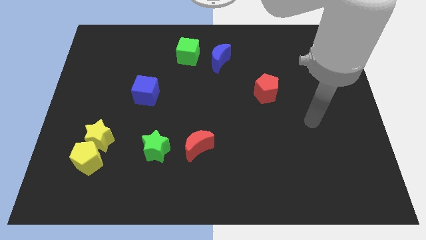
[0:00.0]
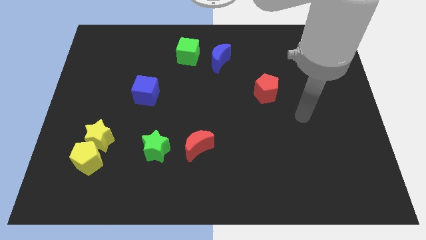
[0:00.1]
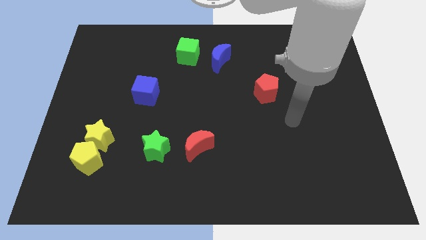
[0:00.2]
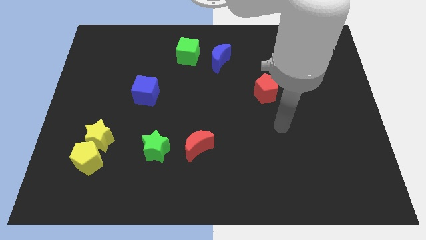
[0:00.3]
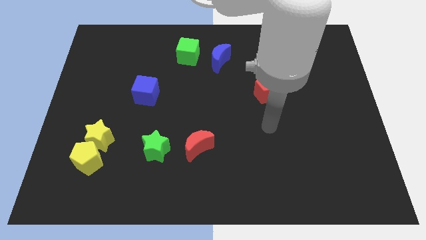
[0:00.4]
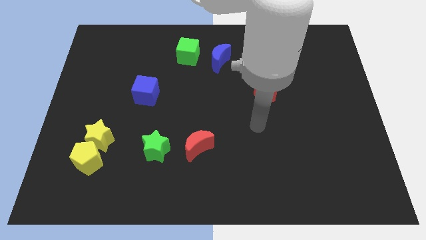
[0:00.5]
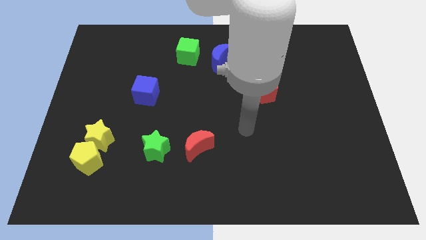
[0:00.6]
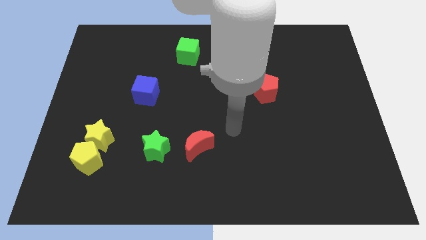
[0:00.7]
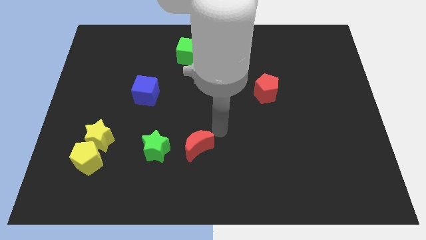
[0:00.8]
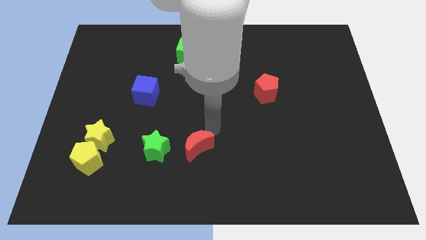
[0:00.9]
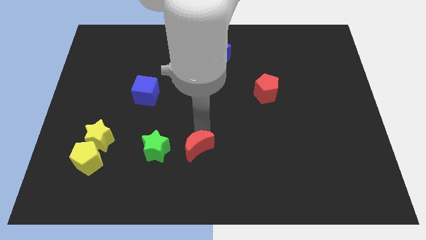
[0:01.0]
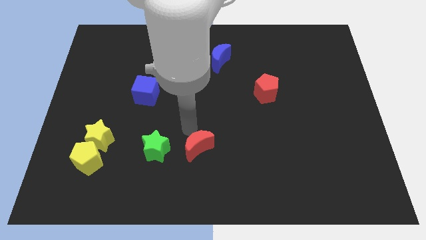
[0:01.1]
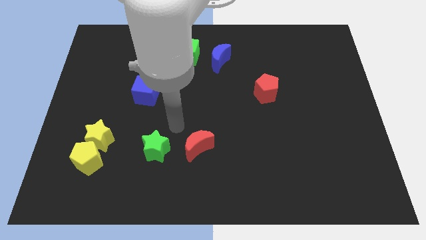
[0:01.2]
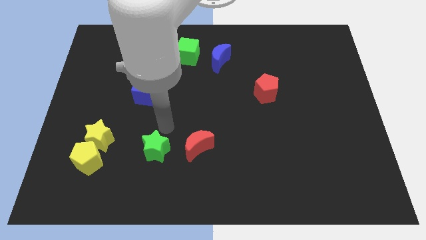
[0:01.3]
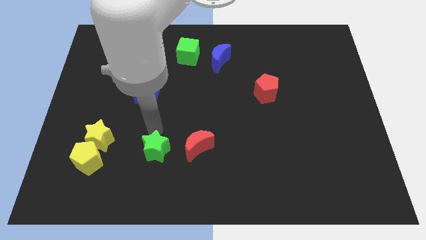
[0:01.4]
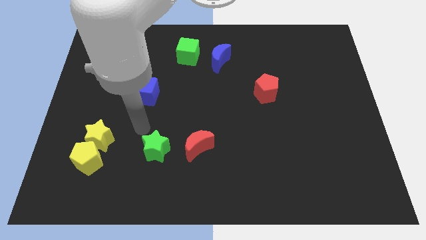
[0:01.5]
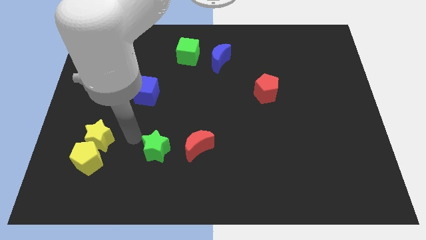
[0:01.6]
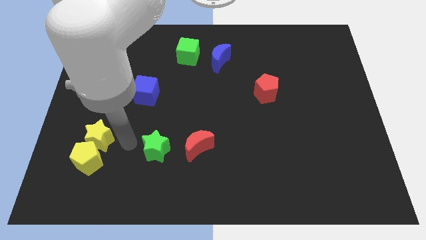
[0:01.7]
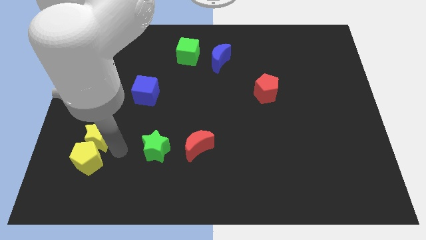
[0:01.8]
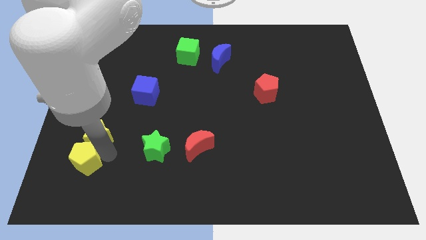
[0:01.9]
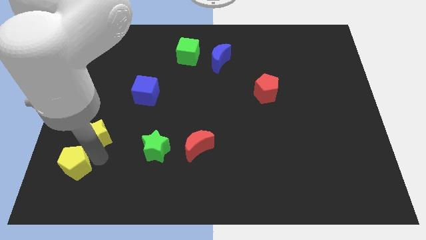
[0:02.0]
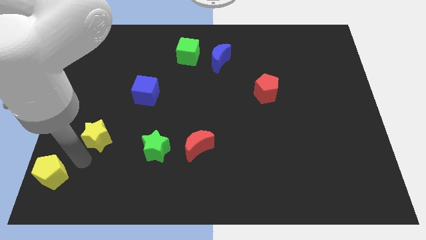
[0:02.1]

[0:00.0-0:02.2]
pull the yellow star apart from the yellow pentagon

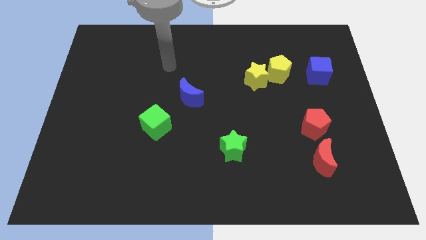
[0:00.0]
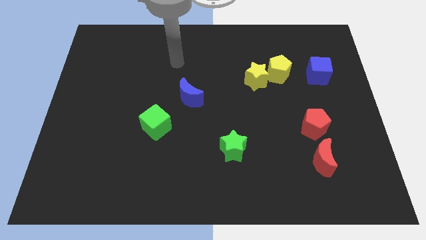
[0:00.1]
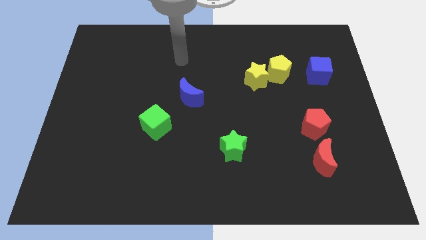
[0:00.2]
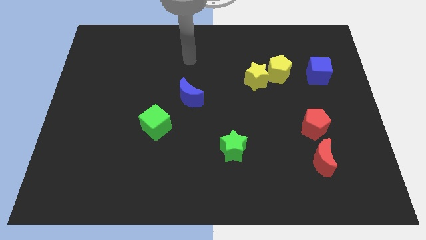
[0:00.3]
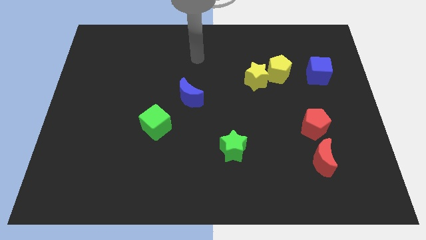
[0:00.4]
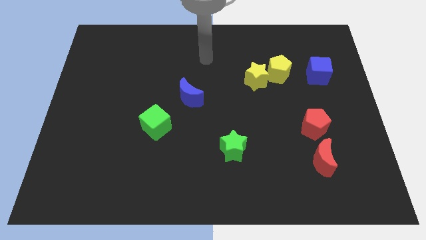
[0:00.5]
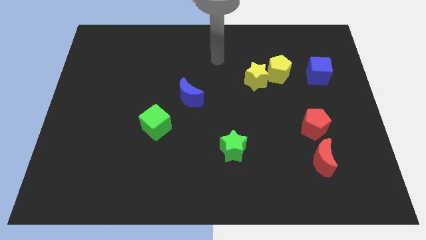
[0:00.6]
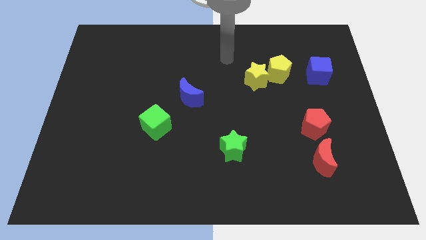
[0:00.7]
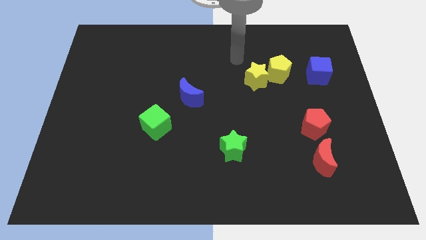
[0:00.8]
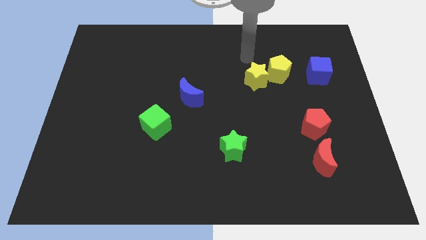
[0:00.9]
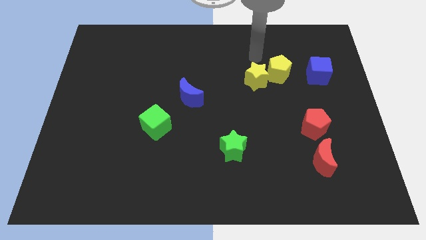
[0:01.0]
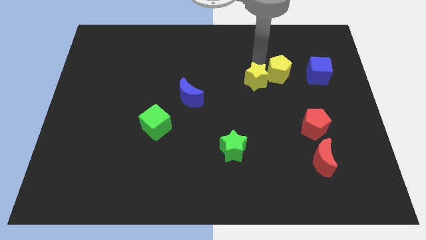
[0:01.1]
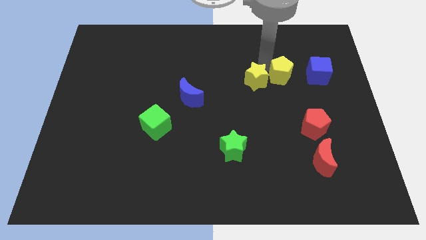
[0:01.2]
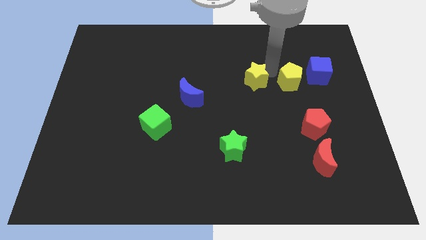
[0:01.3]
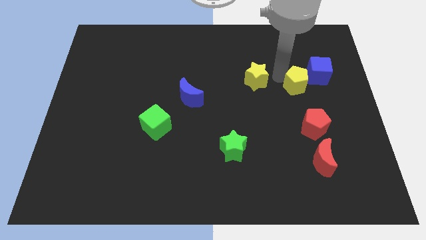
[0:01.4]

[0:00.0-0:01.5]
separate the yellow star from the yellow pentagon

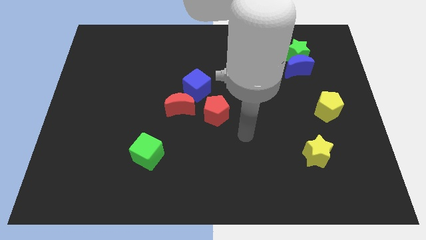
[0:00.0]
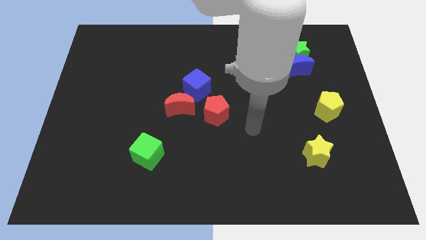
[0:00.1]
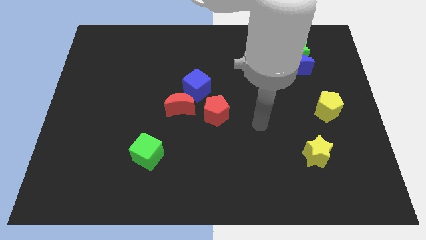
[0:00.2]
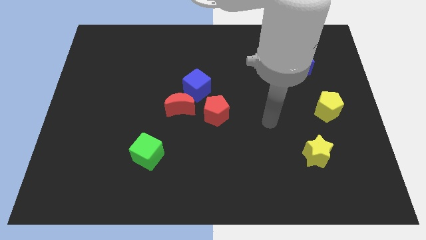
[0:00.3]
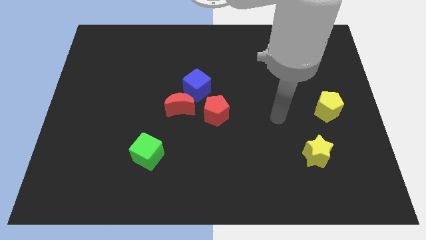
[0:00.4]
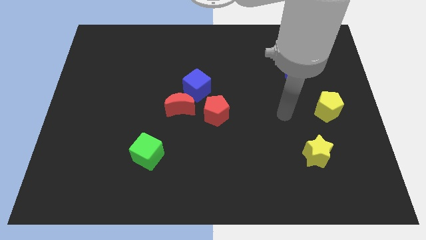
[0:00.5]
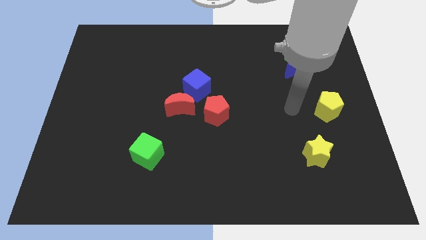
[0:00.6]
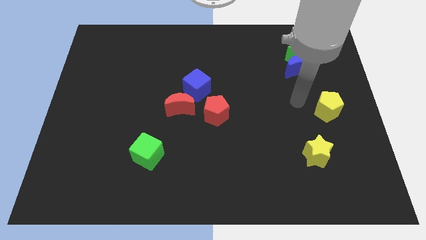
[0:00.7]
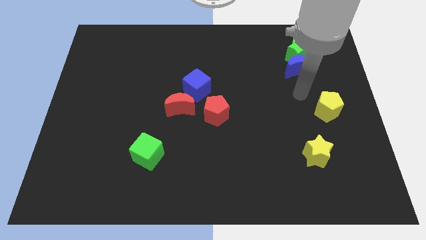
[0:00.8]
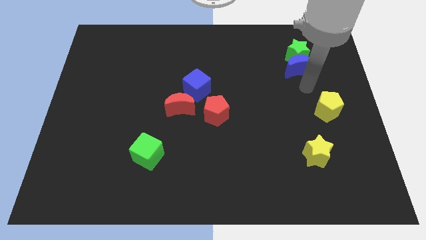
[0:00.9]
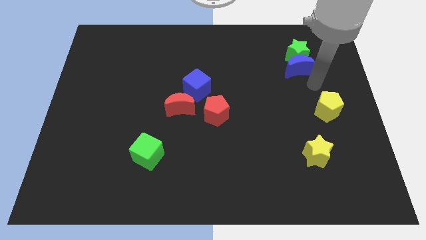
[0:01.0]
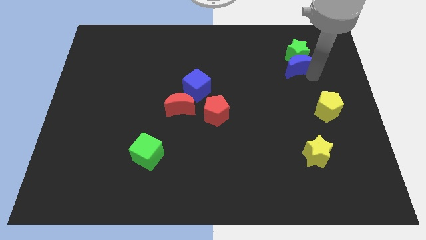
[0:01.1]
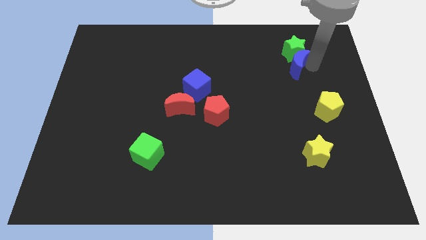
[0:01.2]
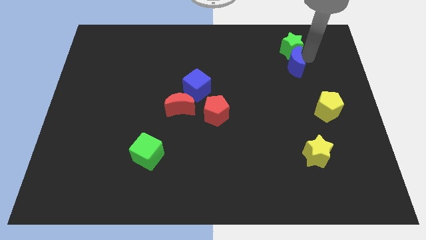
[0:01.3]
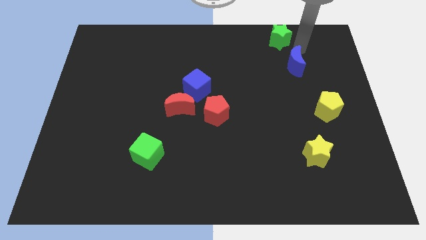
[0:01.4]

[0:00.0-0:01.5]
separate the blue moon from the green star

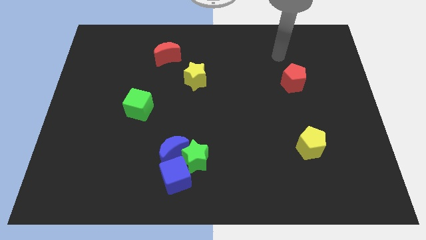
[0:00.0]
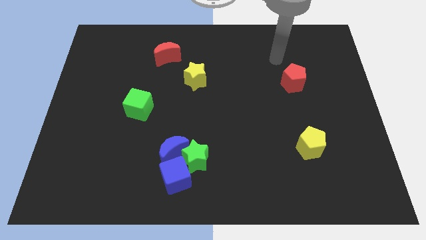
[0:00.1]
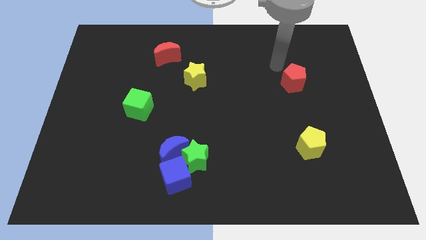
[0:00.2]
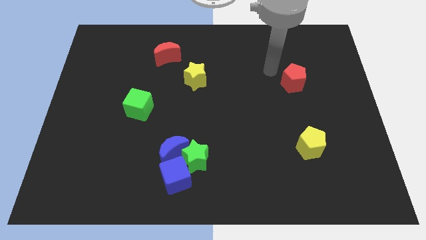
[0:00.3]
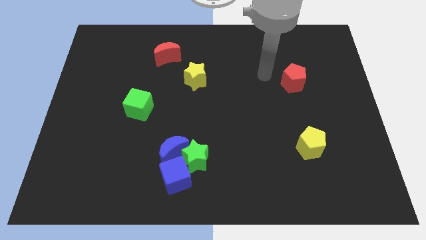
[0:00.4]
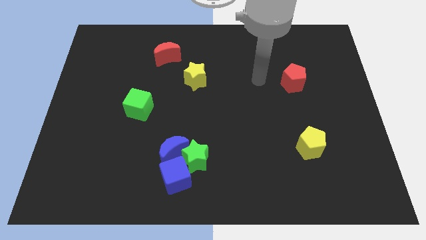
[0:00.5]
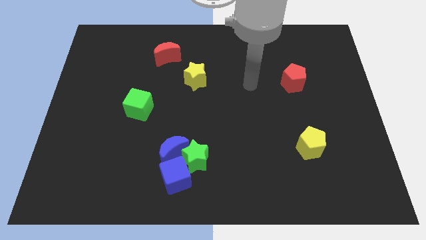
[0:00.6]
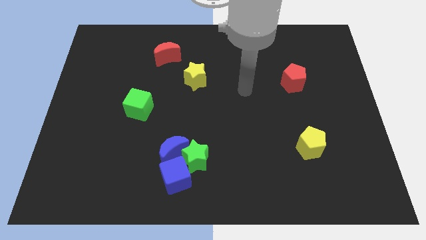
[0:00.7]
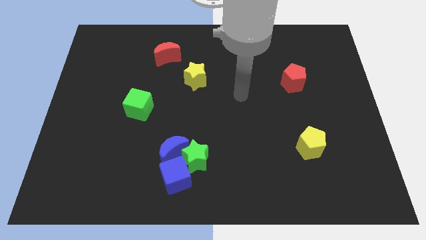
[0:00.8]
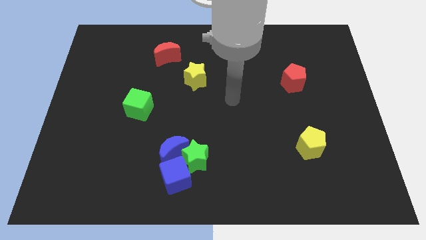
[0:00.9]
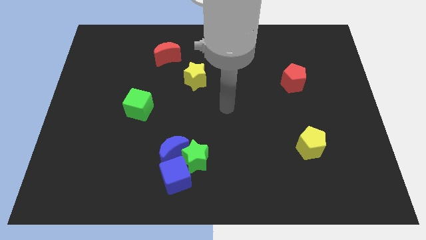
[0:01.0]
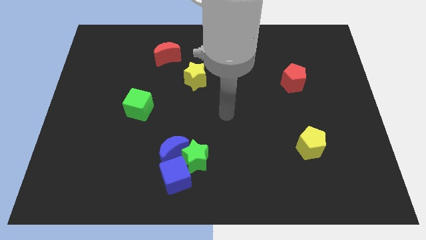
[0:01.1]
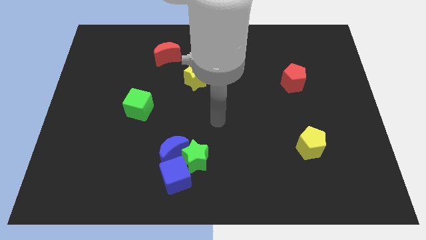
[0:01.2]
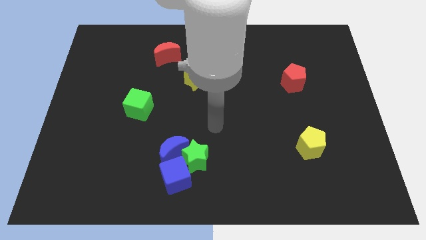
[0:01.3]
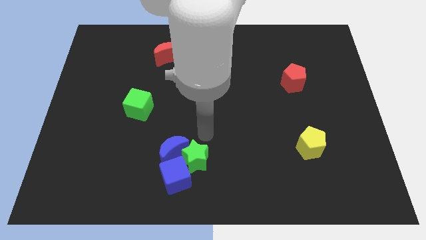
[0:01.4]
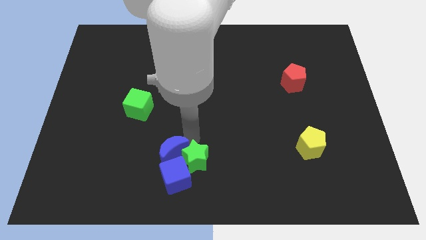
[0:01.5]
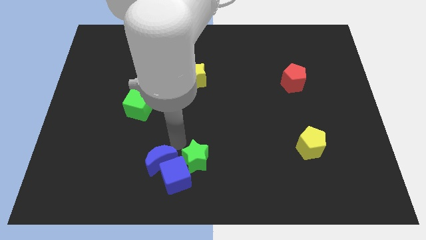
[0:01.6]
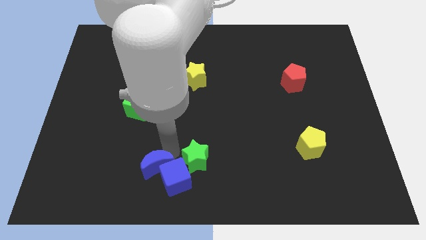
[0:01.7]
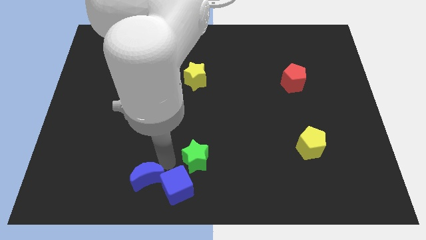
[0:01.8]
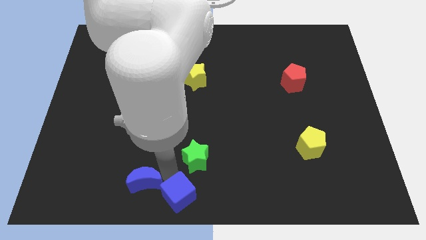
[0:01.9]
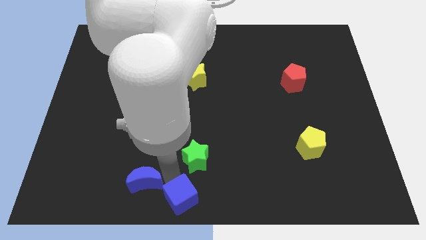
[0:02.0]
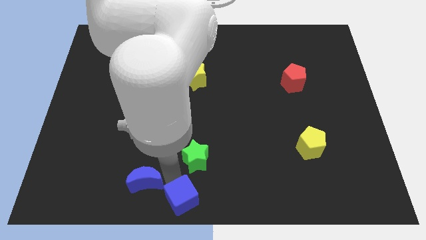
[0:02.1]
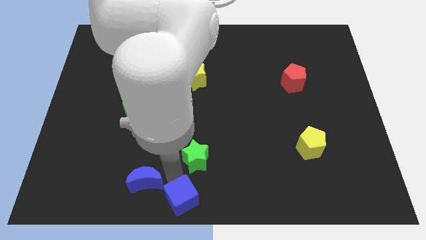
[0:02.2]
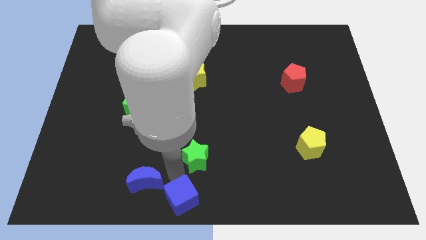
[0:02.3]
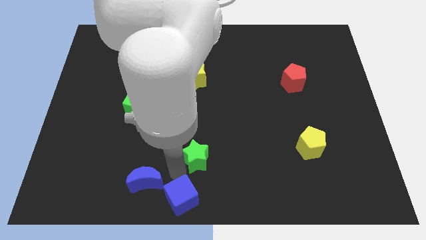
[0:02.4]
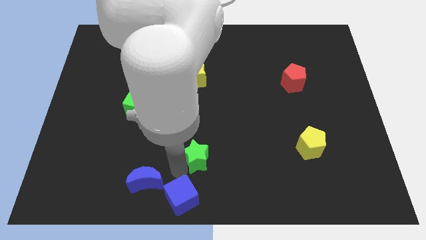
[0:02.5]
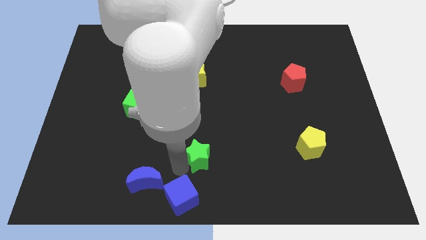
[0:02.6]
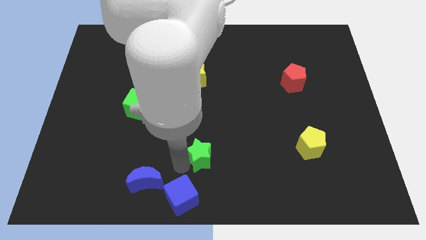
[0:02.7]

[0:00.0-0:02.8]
pull the green star apart from the blue moon and blue cube

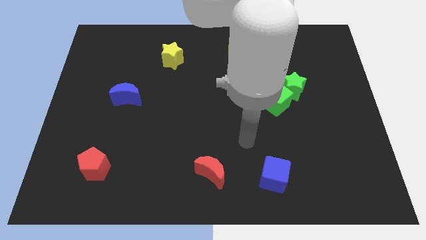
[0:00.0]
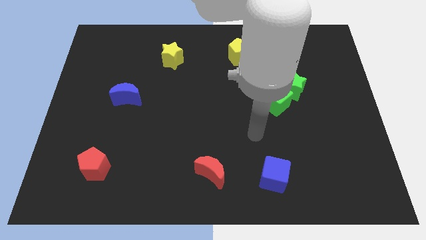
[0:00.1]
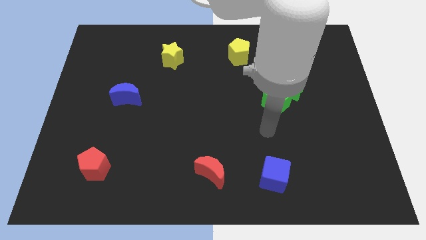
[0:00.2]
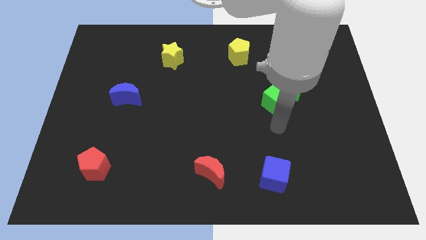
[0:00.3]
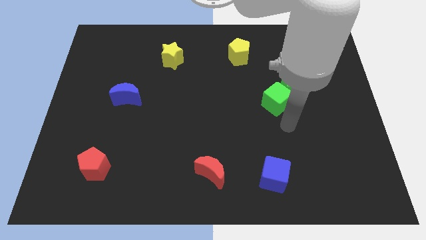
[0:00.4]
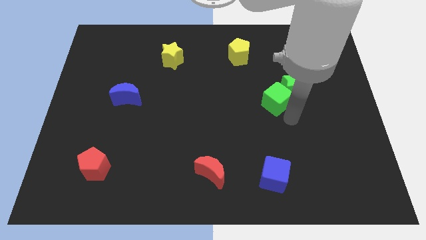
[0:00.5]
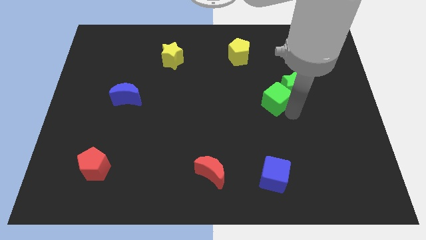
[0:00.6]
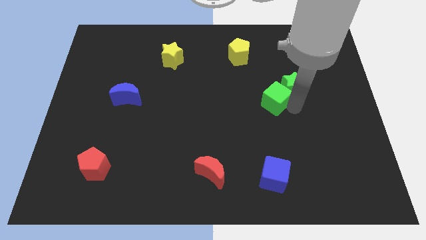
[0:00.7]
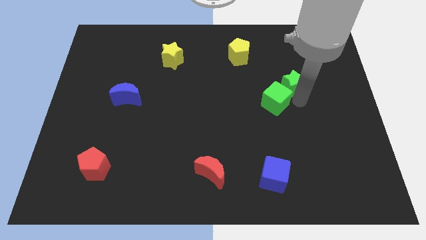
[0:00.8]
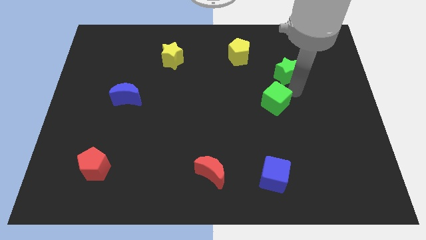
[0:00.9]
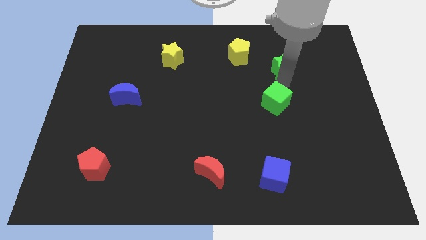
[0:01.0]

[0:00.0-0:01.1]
move the green cube away from the green star

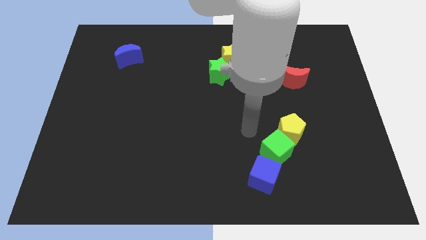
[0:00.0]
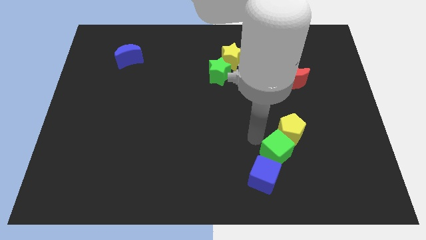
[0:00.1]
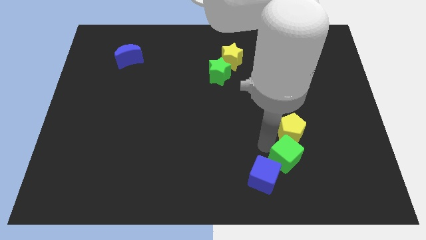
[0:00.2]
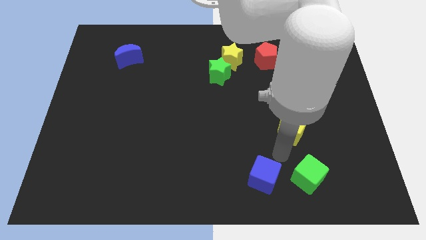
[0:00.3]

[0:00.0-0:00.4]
pull the yellow pentagon apart from the green cube
